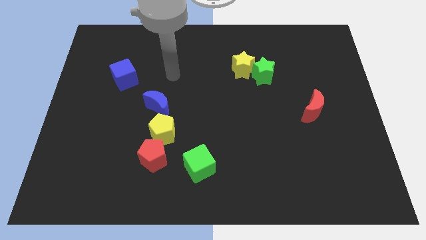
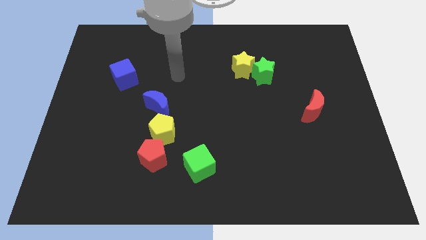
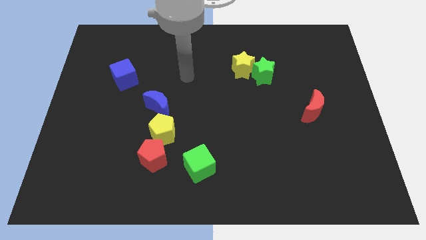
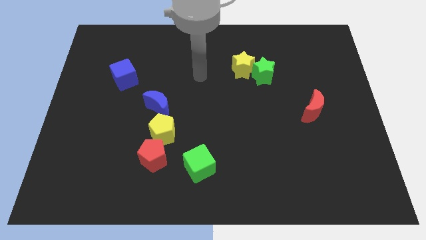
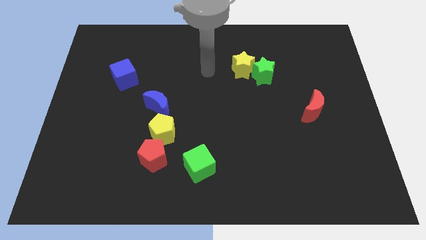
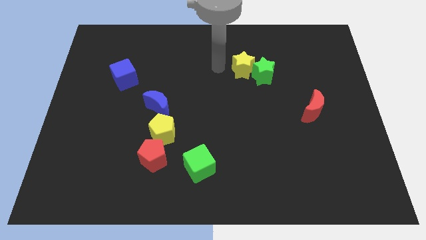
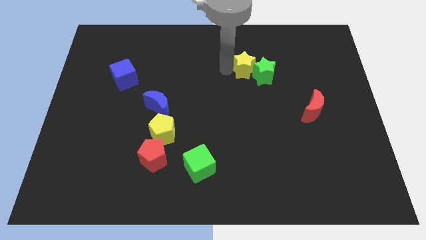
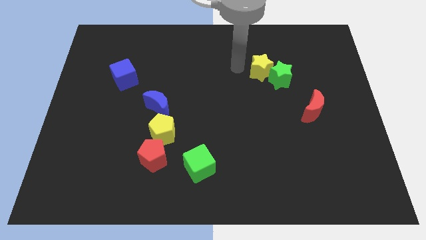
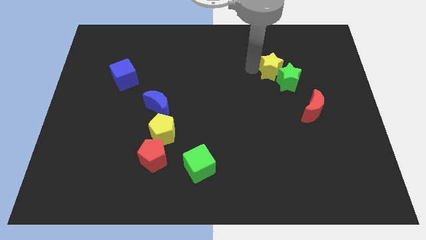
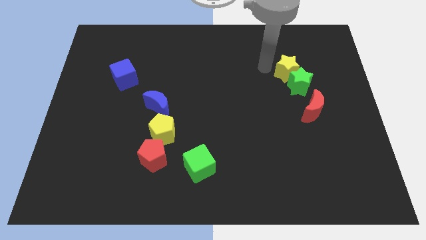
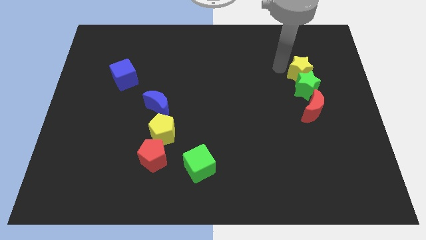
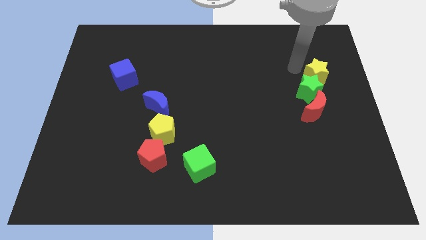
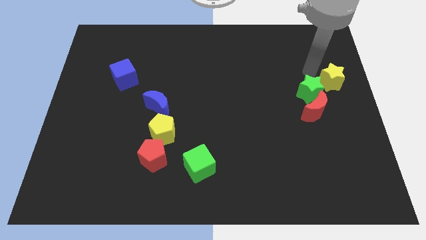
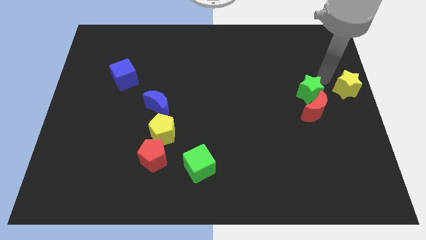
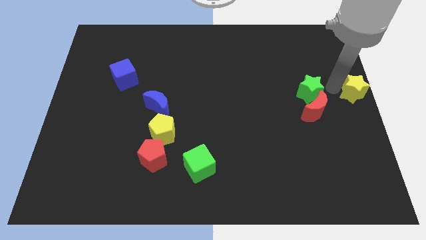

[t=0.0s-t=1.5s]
move the green star away from the yellow star

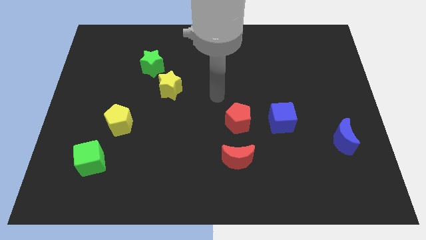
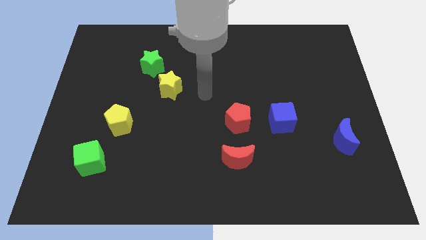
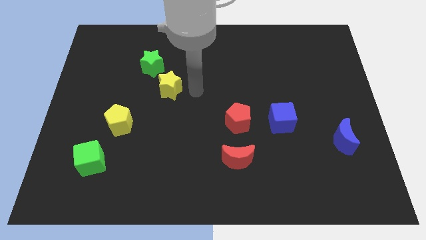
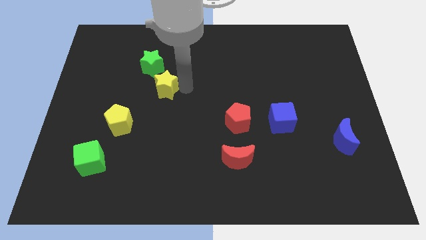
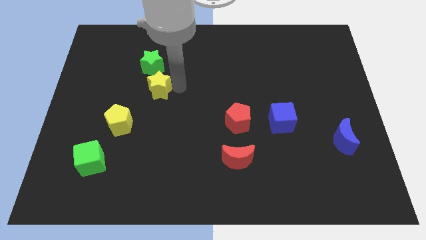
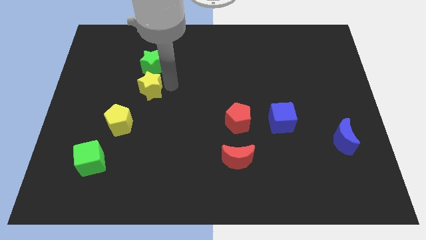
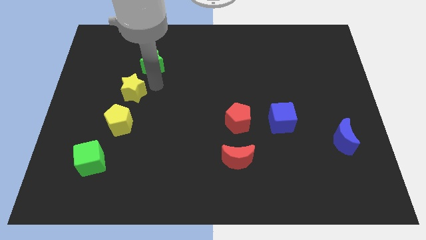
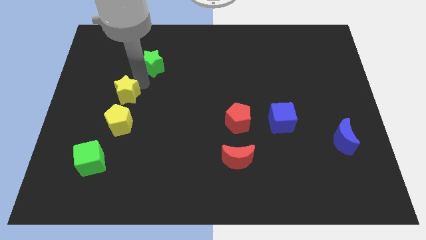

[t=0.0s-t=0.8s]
separate the green star from the yellow star

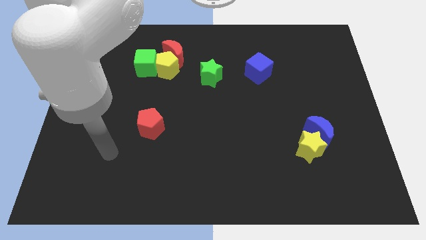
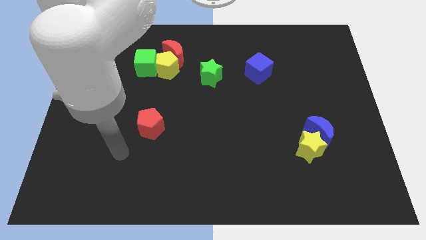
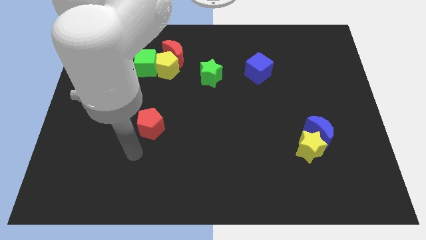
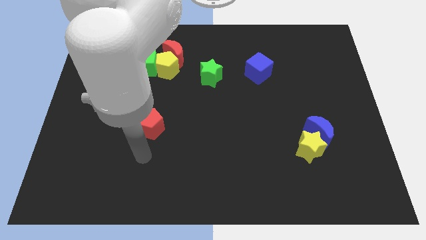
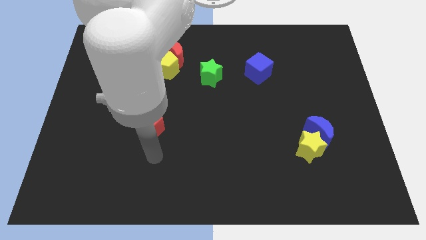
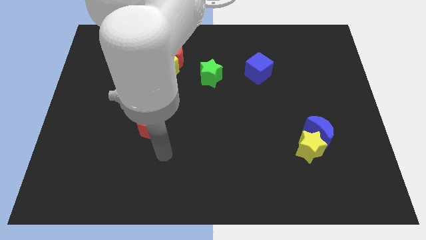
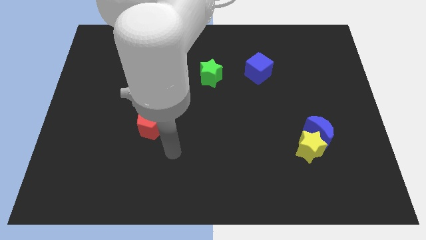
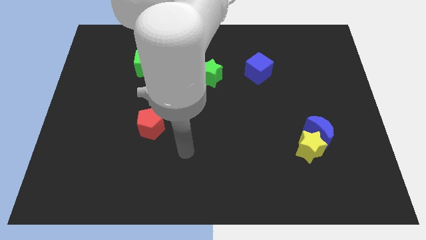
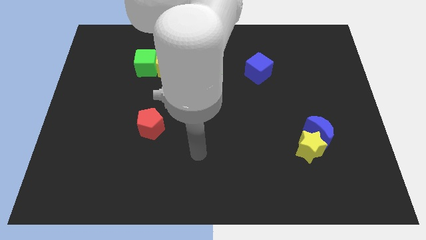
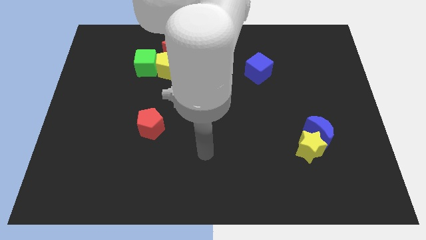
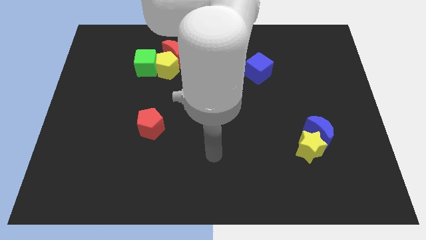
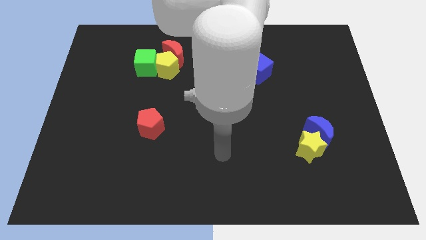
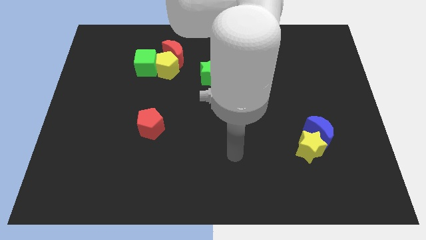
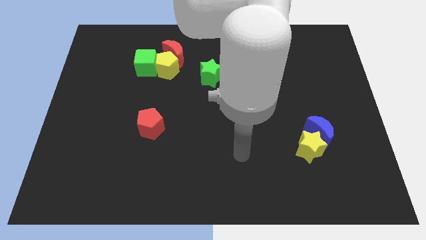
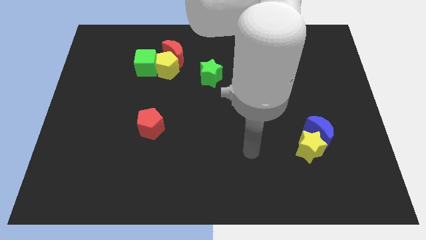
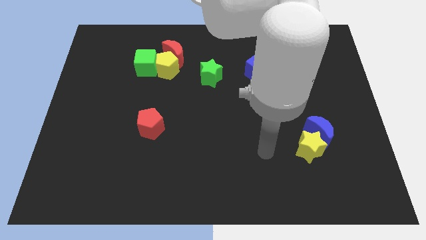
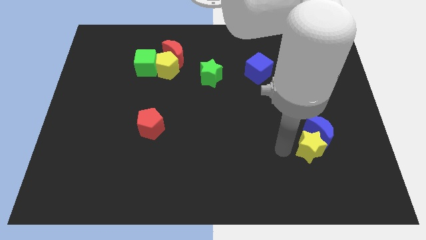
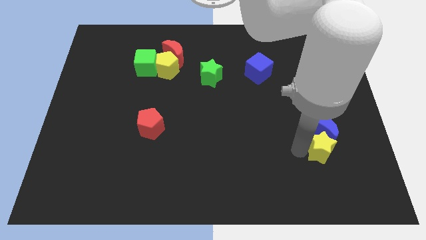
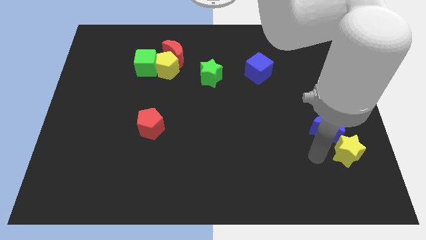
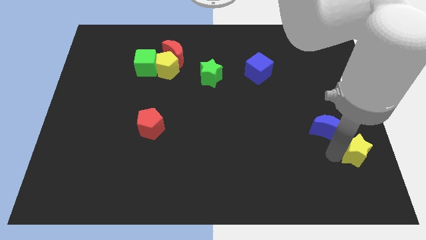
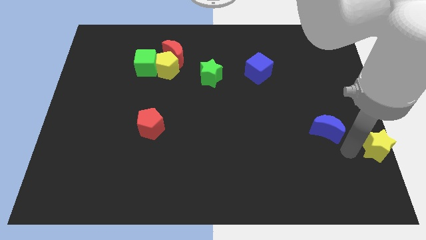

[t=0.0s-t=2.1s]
move the blue moon away from the yellow star

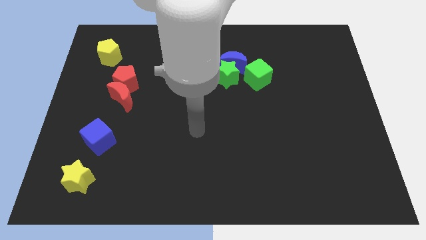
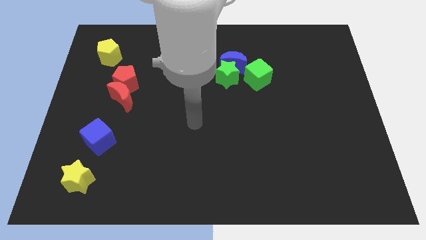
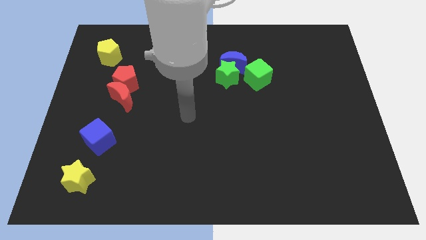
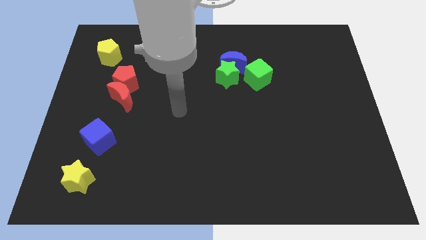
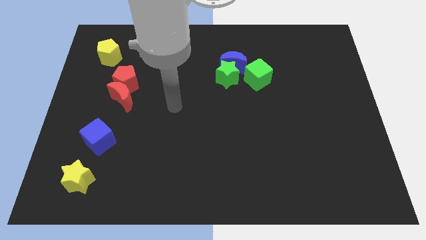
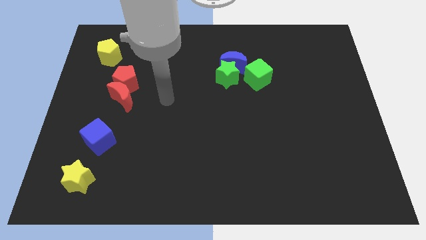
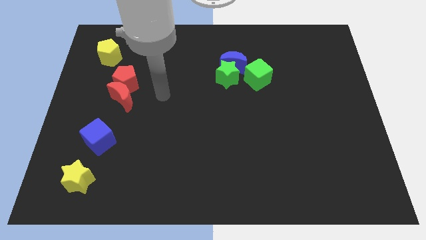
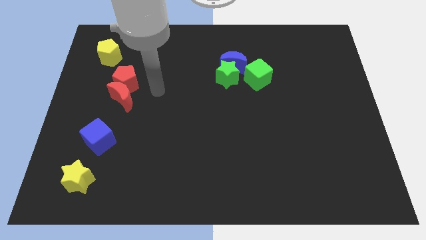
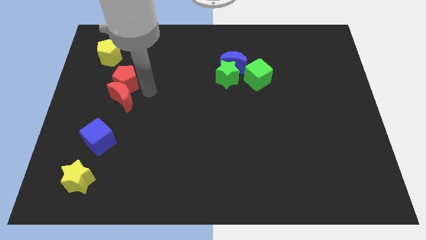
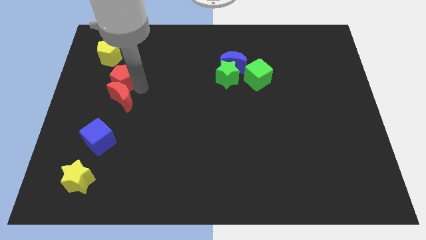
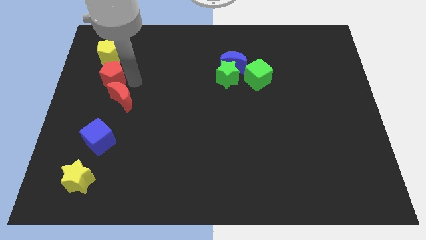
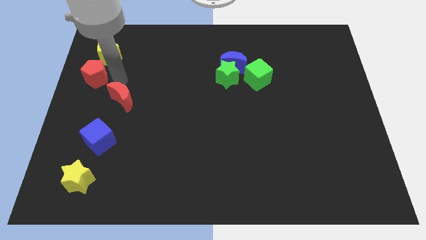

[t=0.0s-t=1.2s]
separate the red moon from the red pentagon

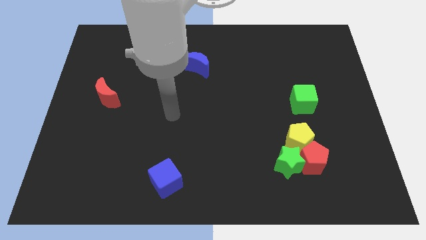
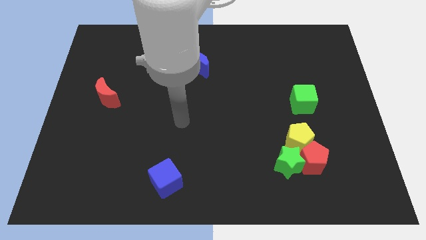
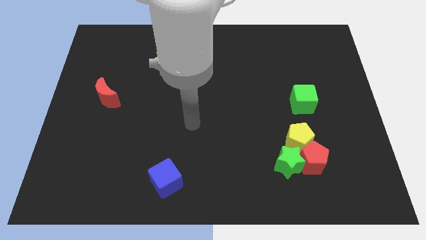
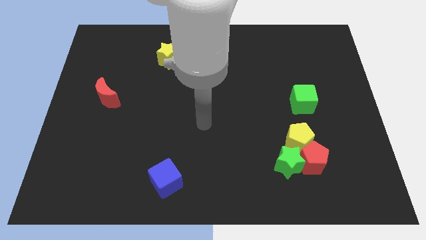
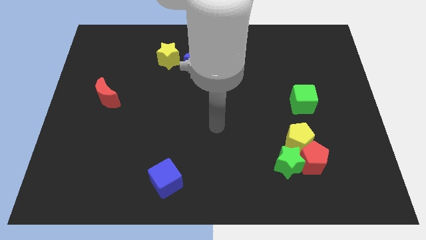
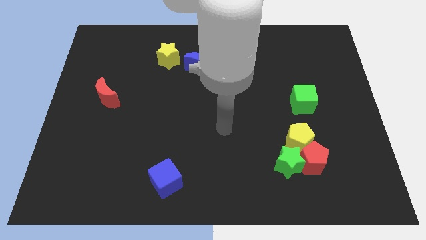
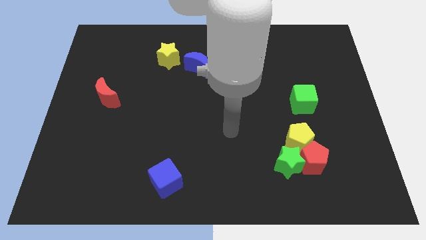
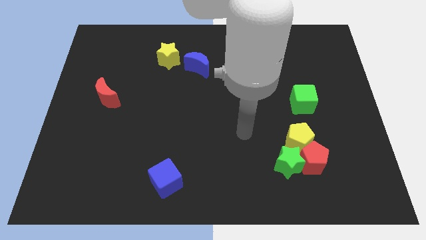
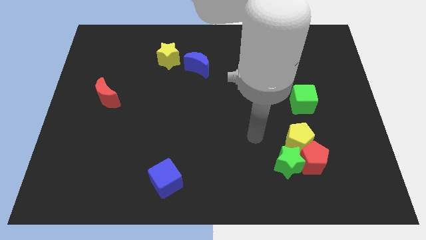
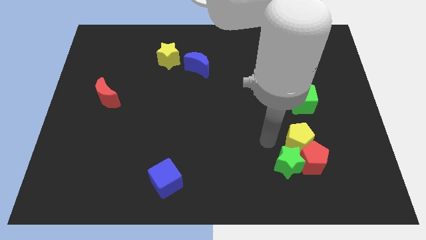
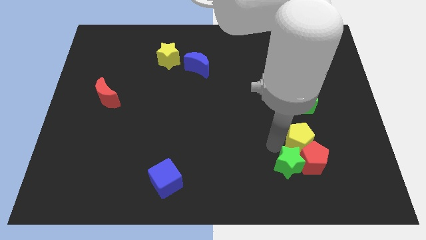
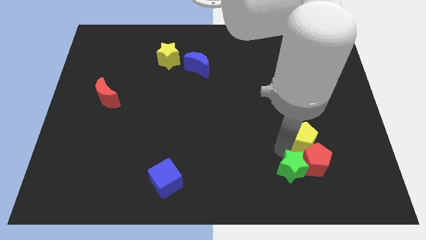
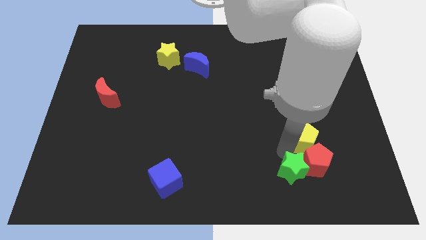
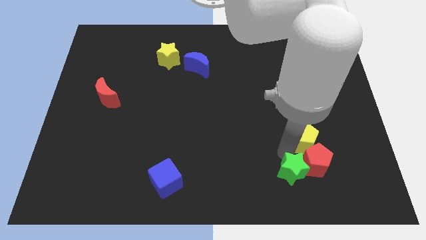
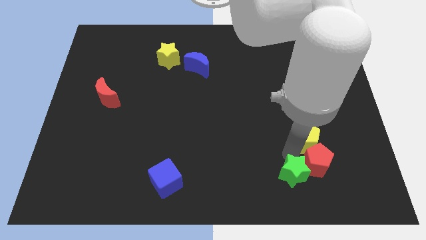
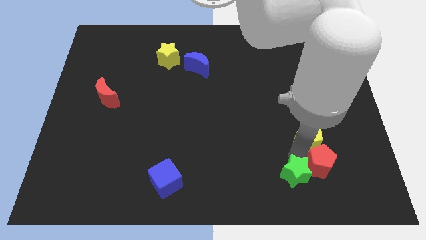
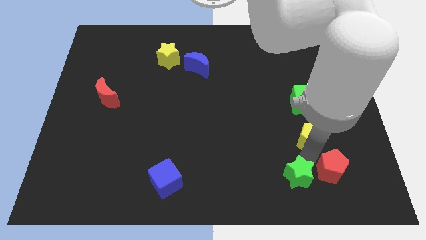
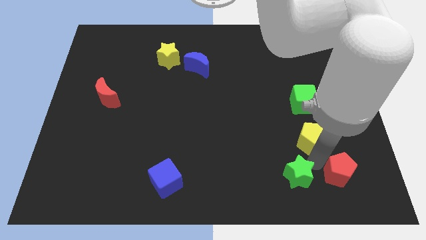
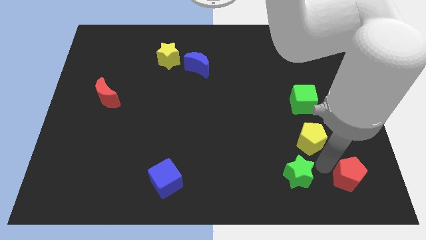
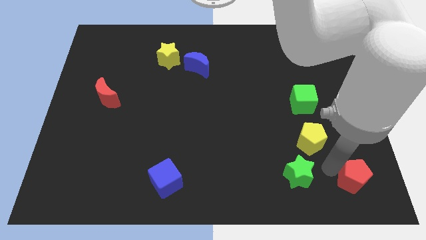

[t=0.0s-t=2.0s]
pull the red pentagon apart from the green star and yellow pentagon

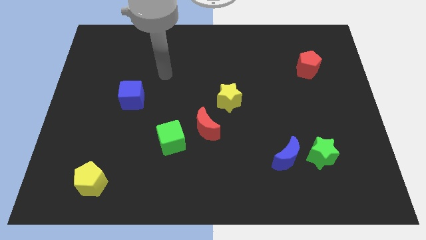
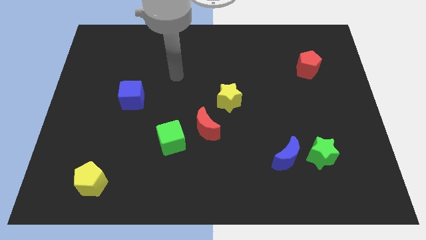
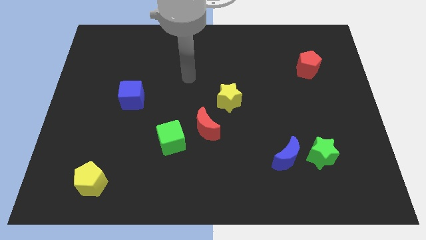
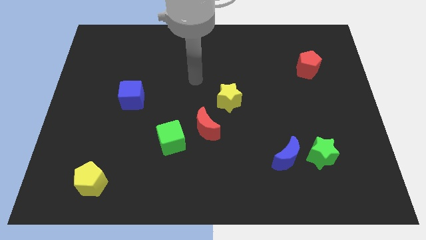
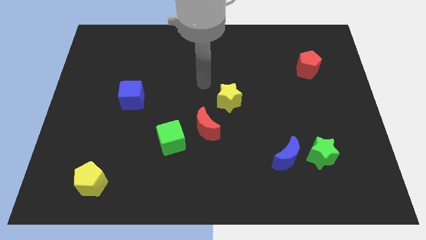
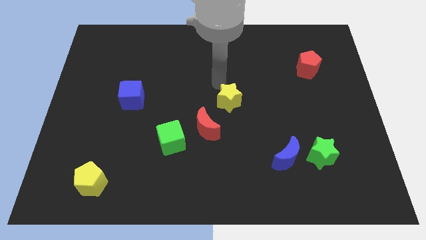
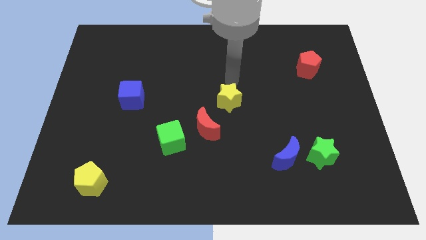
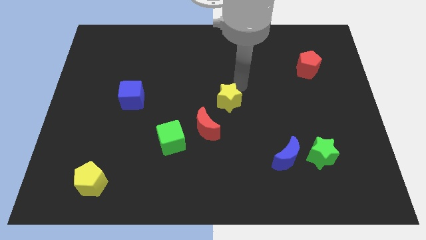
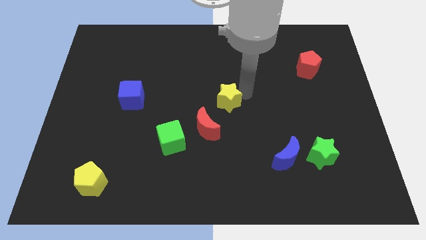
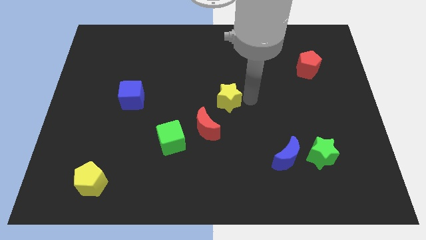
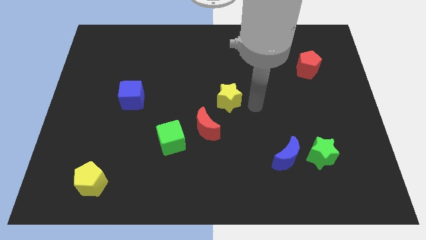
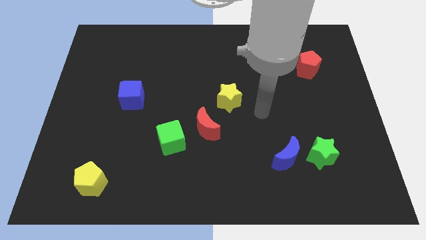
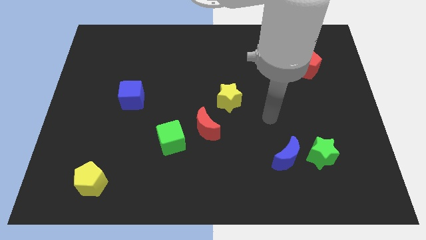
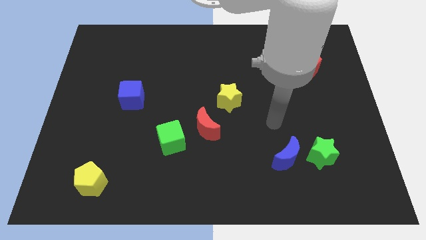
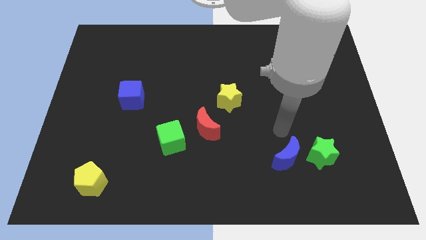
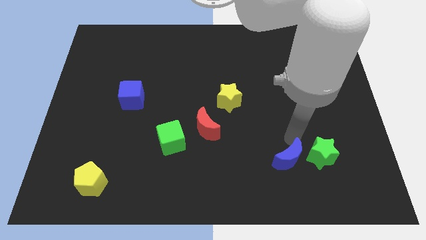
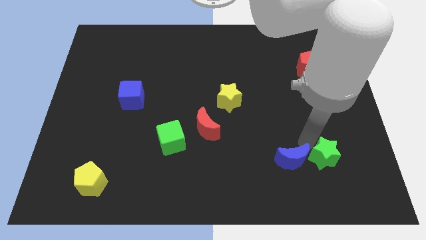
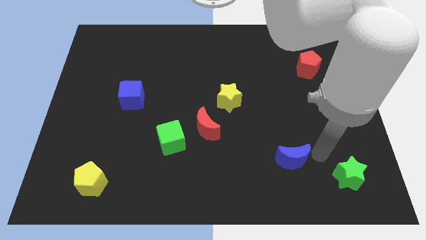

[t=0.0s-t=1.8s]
pull the blue moon apart from the green star
